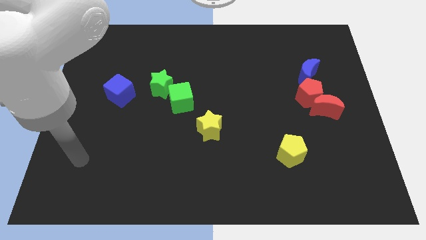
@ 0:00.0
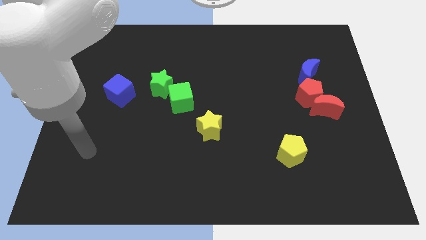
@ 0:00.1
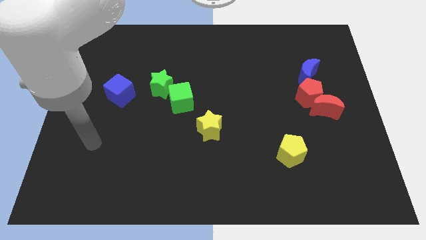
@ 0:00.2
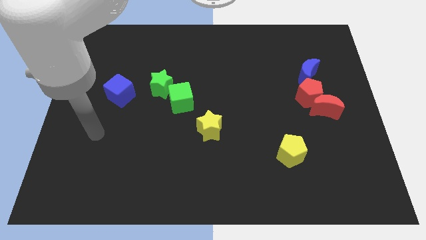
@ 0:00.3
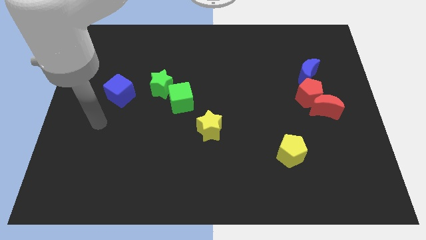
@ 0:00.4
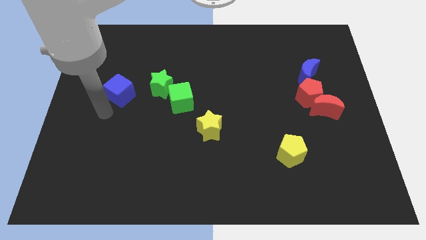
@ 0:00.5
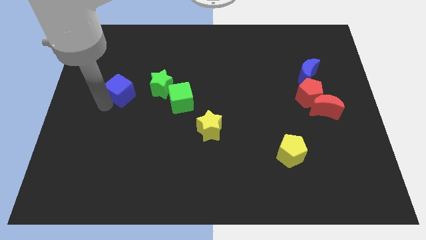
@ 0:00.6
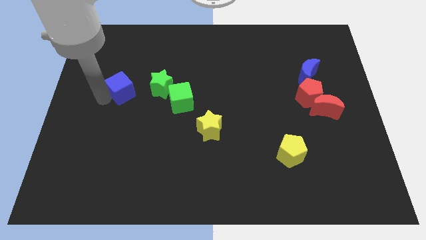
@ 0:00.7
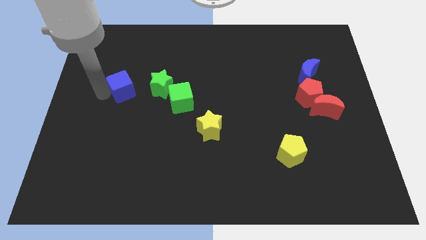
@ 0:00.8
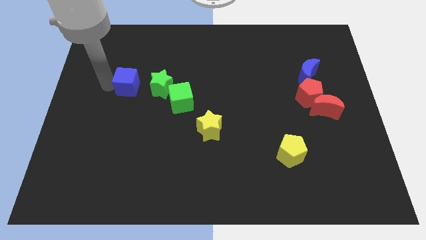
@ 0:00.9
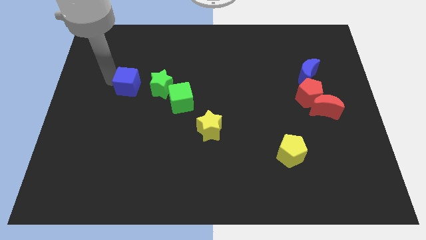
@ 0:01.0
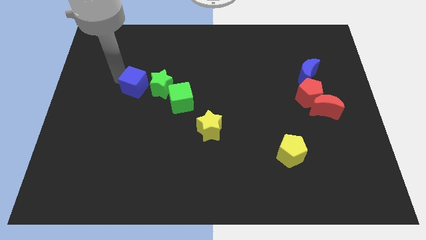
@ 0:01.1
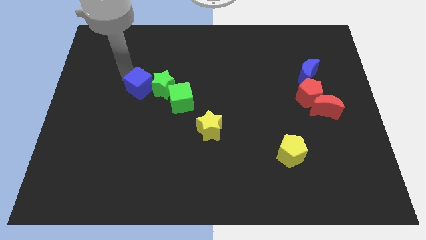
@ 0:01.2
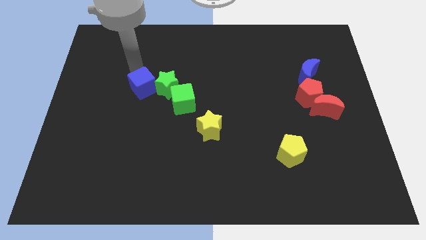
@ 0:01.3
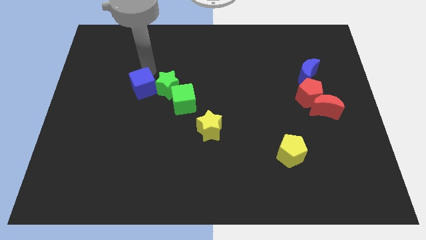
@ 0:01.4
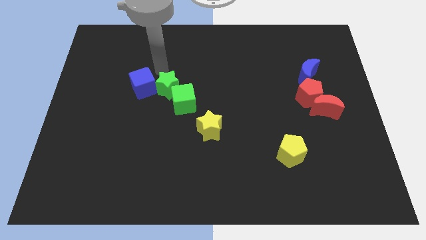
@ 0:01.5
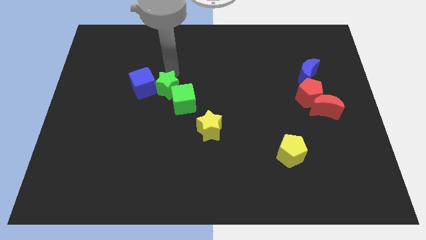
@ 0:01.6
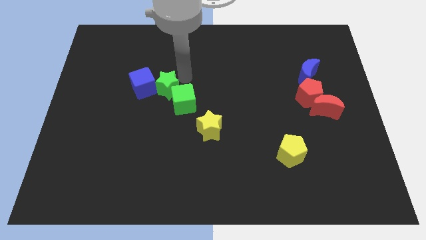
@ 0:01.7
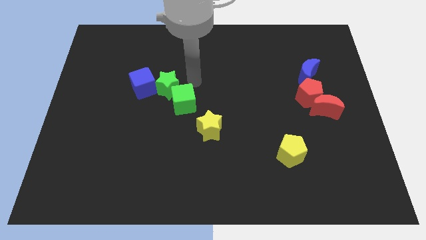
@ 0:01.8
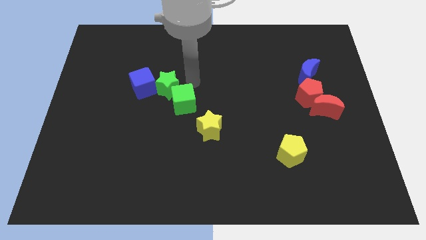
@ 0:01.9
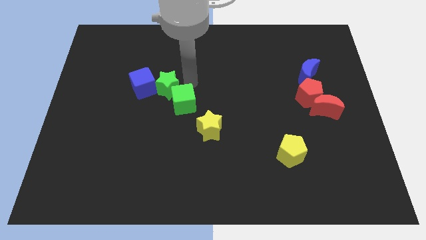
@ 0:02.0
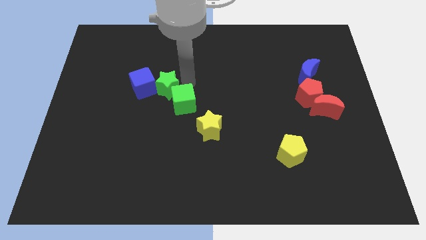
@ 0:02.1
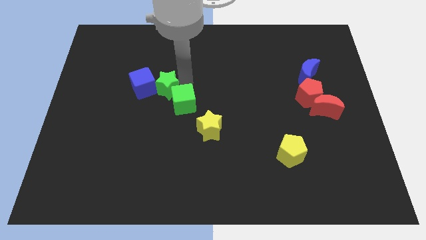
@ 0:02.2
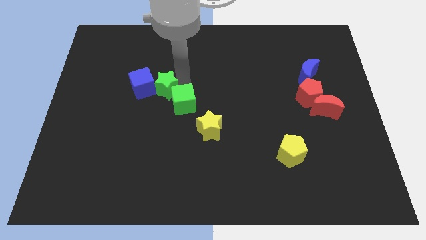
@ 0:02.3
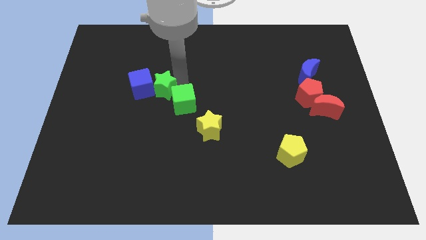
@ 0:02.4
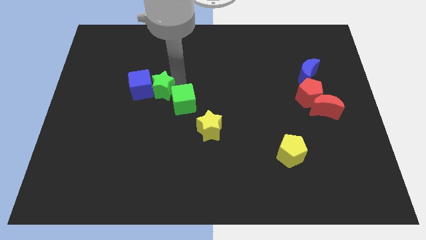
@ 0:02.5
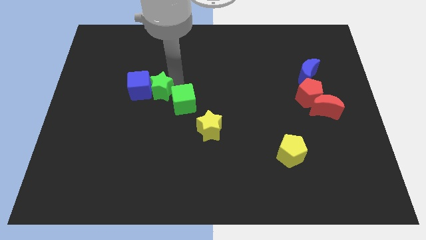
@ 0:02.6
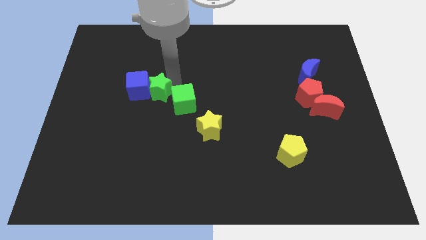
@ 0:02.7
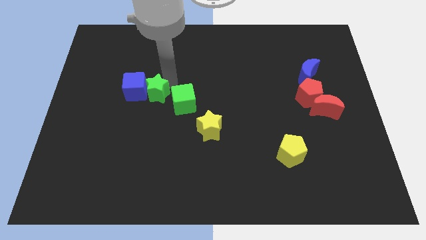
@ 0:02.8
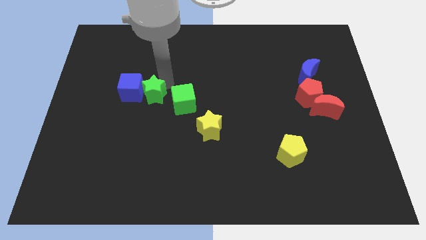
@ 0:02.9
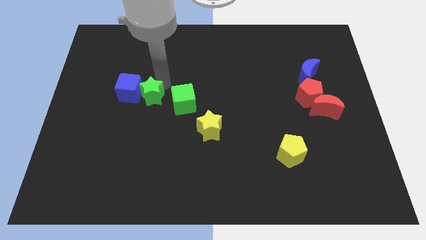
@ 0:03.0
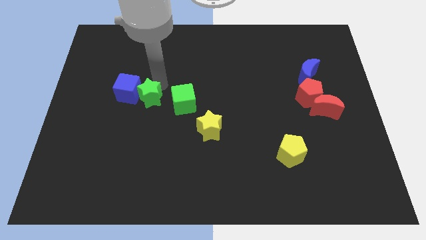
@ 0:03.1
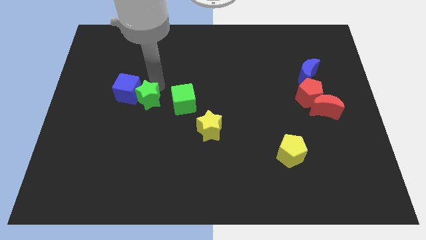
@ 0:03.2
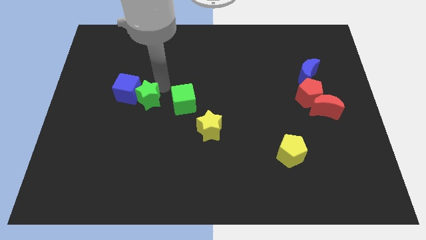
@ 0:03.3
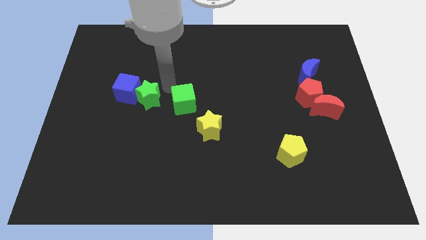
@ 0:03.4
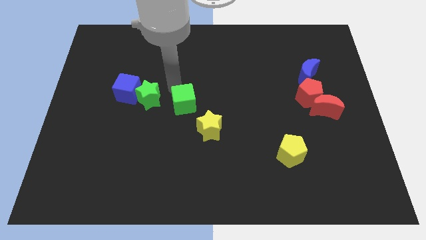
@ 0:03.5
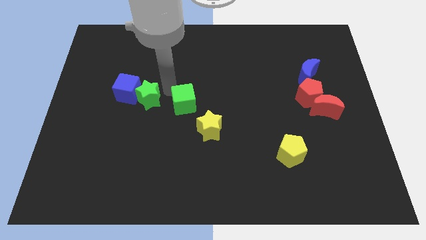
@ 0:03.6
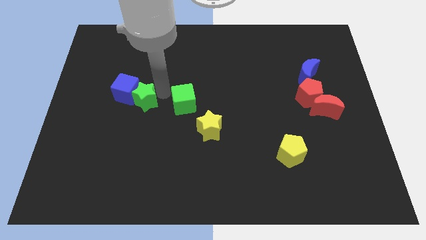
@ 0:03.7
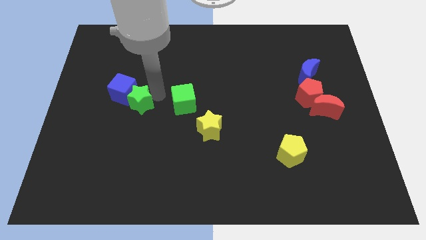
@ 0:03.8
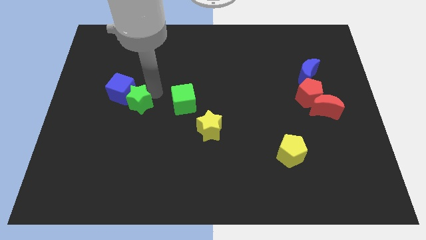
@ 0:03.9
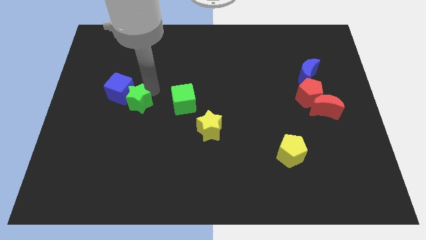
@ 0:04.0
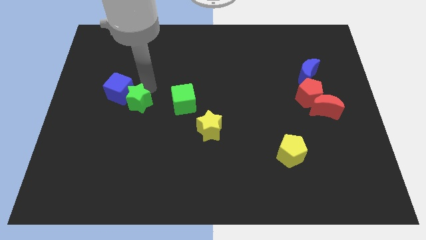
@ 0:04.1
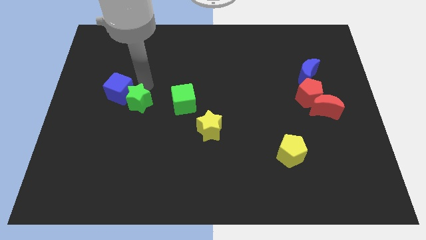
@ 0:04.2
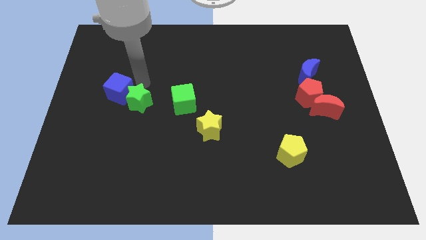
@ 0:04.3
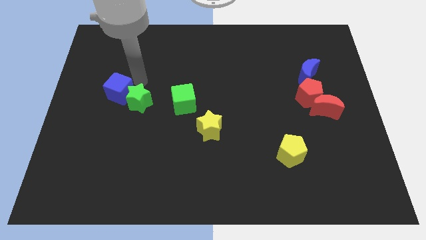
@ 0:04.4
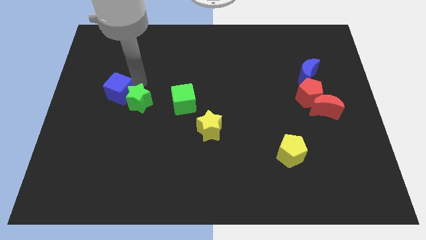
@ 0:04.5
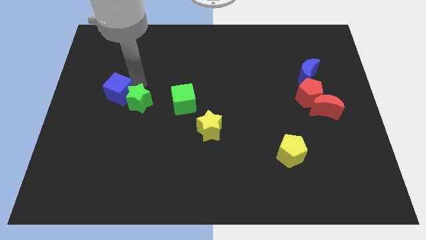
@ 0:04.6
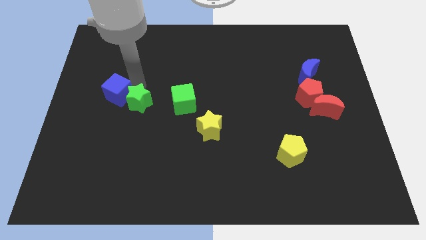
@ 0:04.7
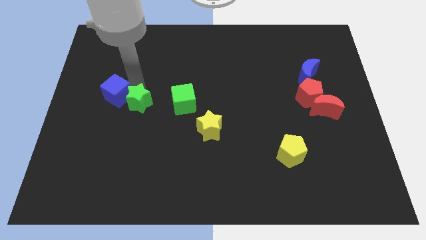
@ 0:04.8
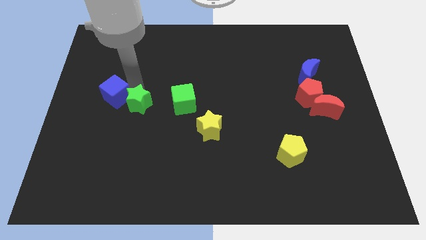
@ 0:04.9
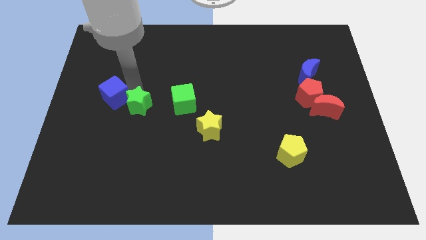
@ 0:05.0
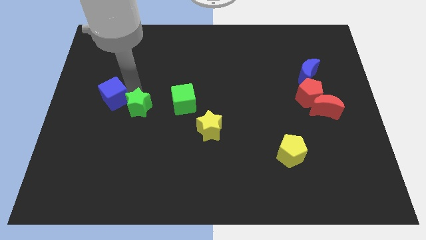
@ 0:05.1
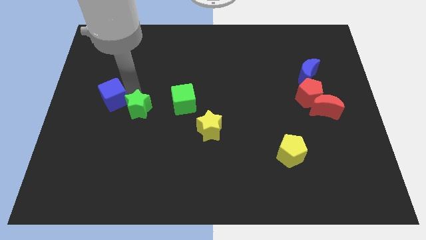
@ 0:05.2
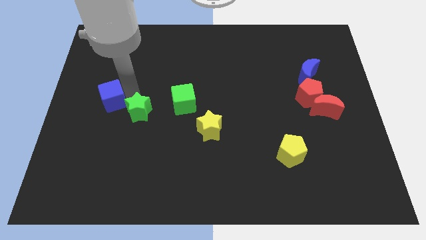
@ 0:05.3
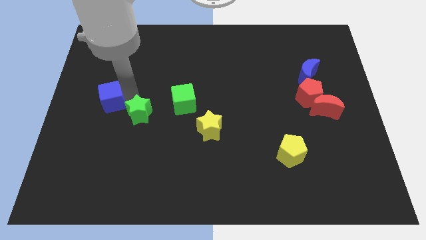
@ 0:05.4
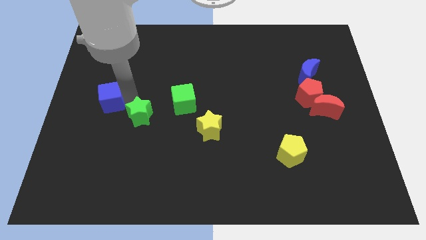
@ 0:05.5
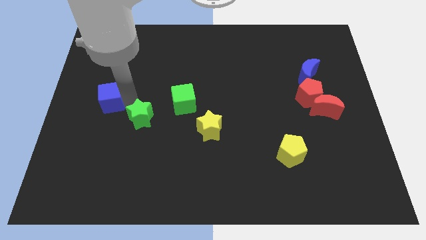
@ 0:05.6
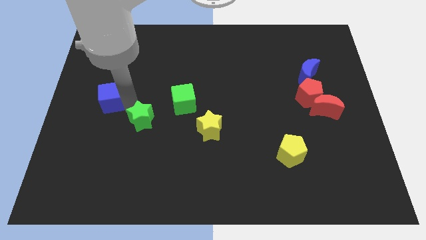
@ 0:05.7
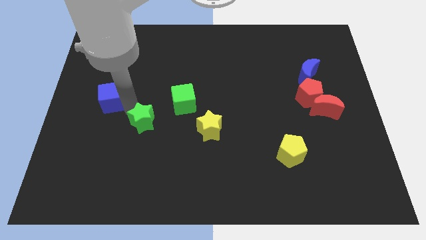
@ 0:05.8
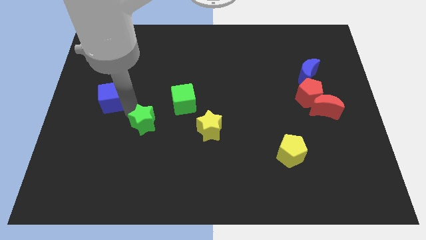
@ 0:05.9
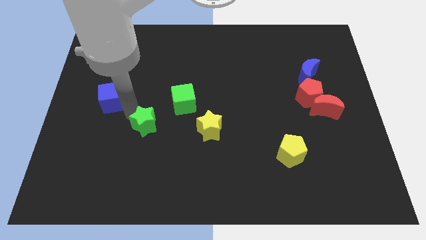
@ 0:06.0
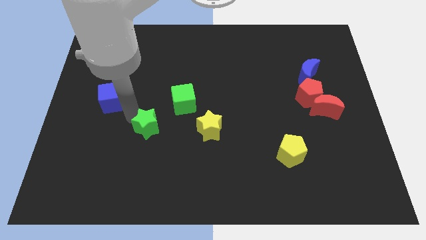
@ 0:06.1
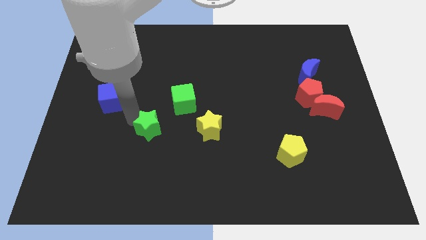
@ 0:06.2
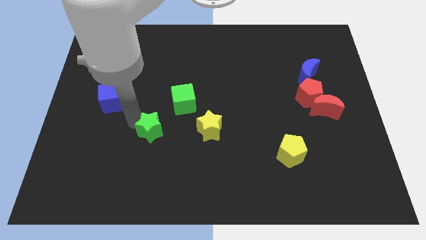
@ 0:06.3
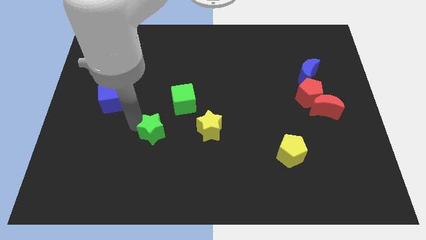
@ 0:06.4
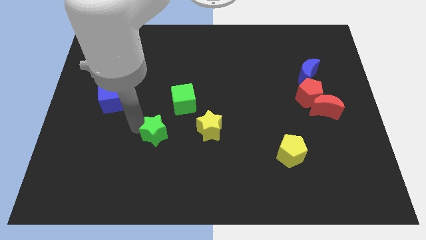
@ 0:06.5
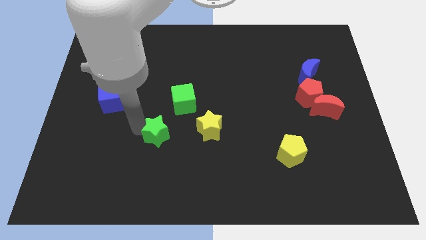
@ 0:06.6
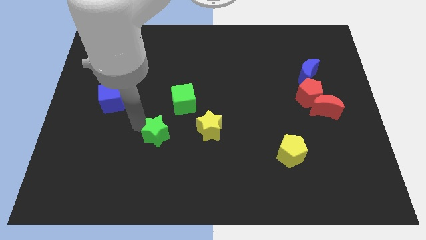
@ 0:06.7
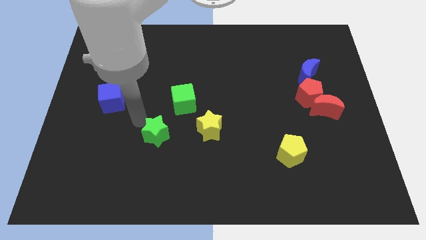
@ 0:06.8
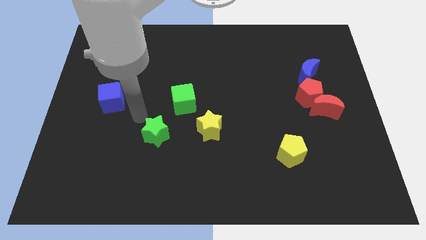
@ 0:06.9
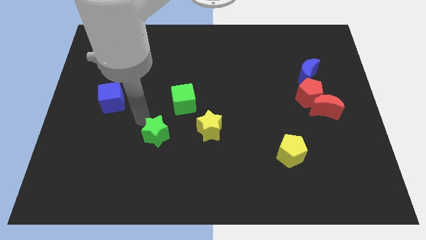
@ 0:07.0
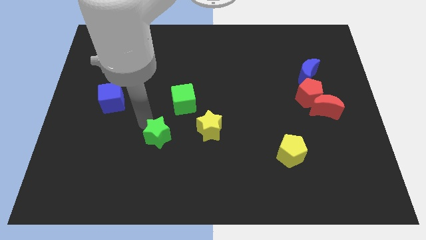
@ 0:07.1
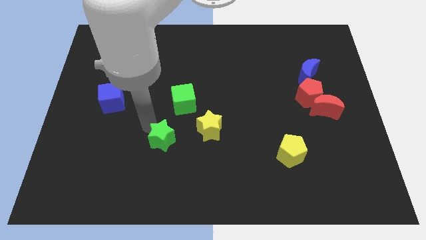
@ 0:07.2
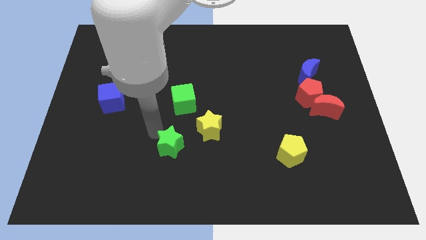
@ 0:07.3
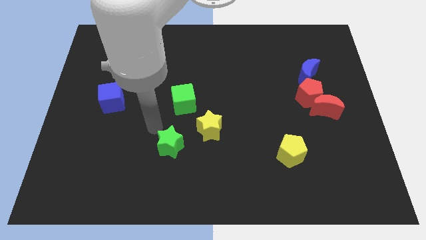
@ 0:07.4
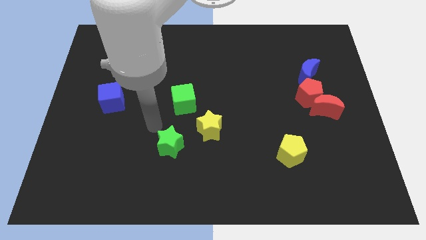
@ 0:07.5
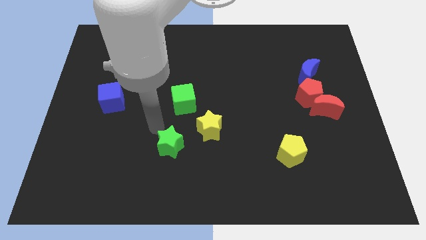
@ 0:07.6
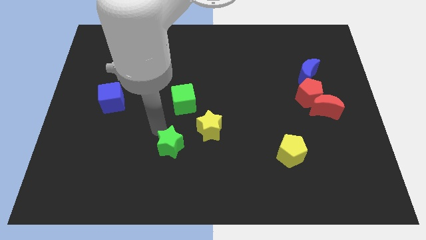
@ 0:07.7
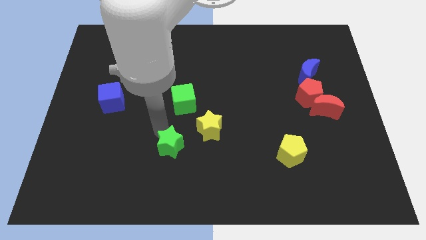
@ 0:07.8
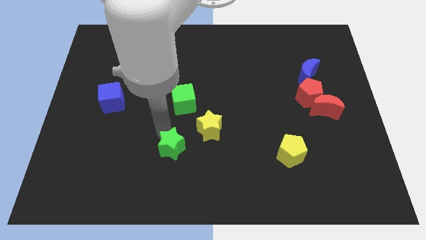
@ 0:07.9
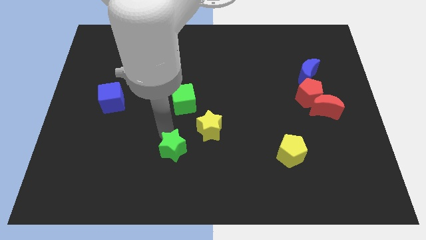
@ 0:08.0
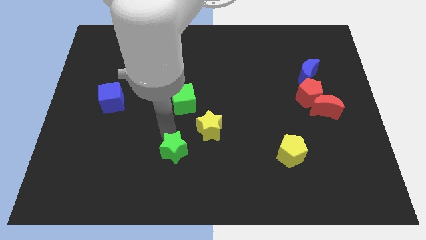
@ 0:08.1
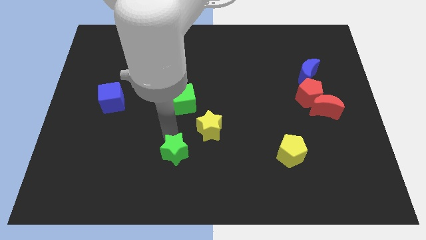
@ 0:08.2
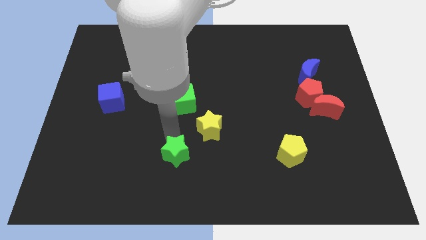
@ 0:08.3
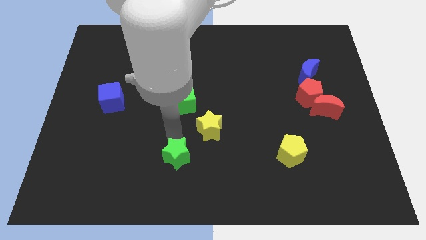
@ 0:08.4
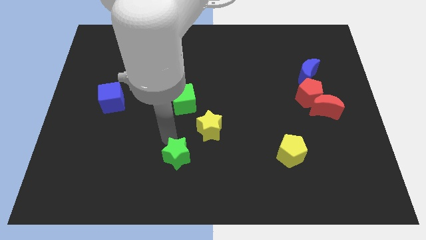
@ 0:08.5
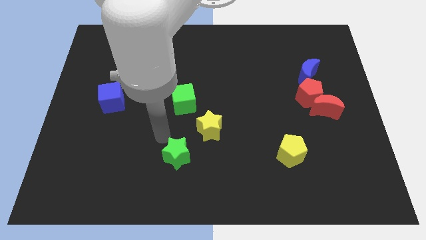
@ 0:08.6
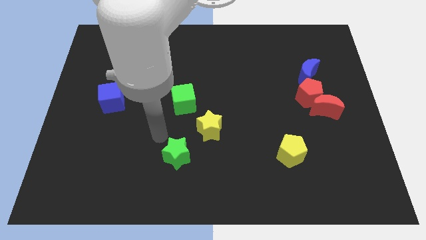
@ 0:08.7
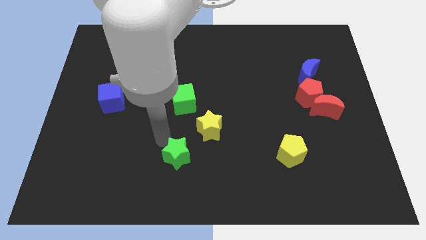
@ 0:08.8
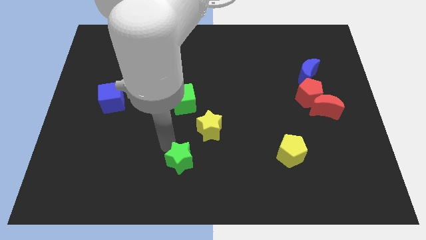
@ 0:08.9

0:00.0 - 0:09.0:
slide the green star to the bottom side
